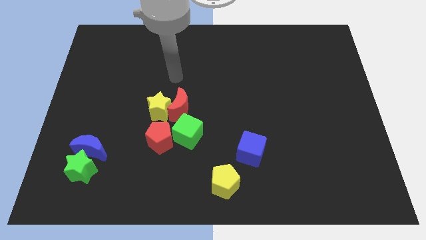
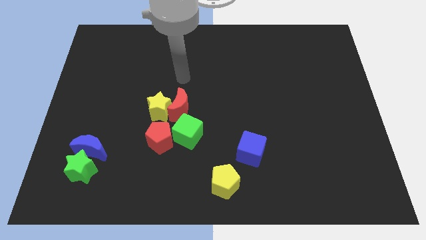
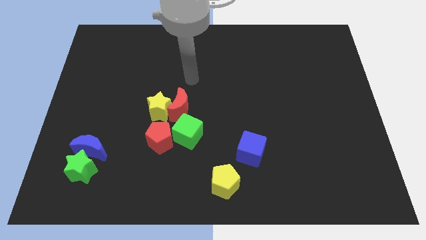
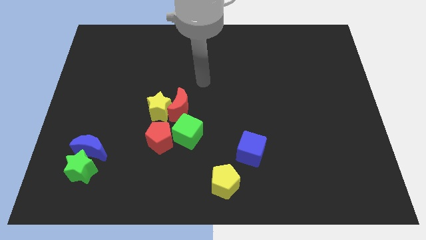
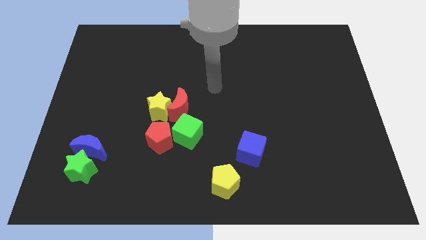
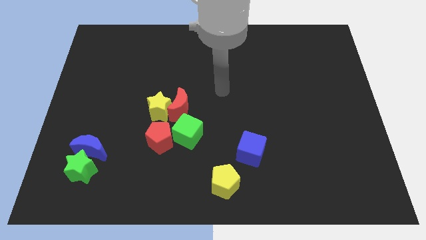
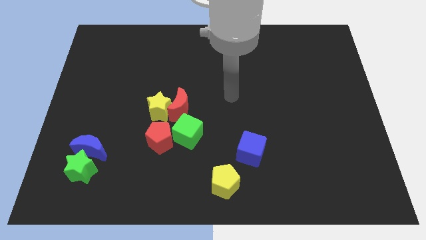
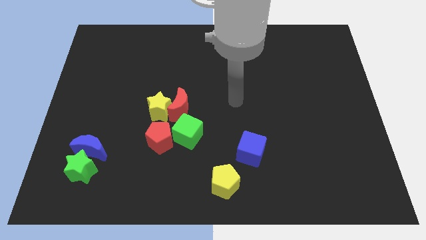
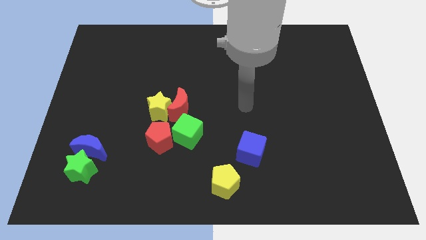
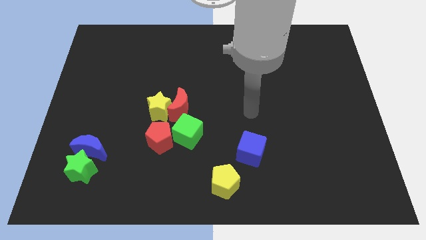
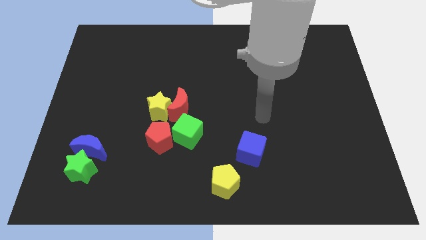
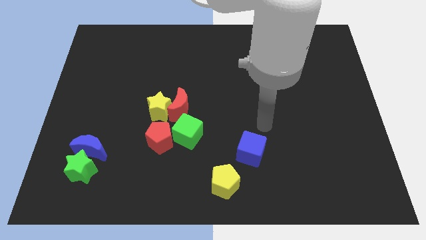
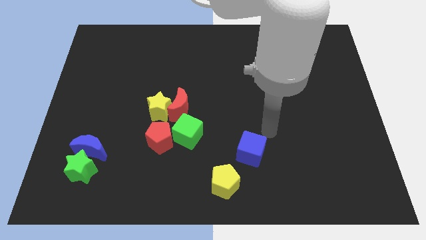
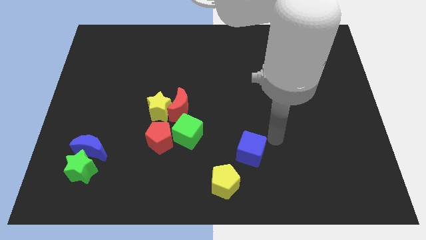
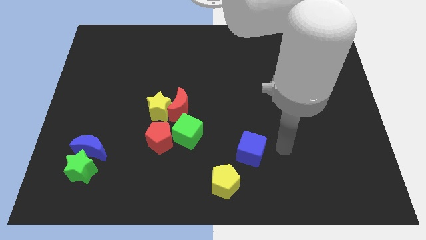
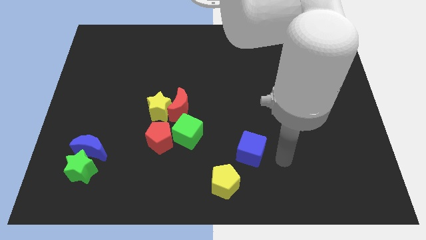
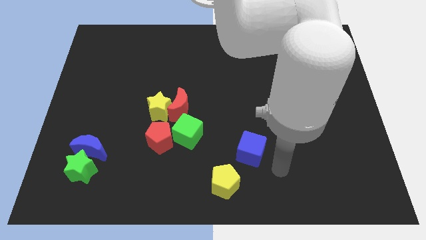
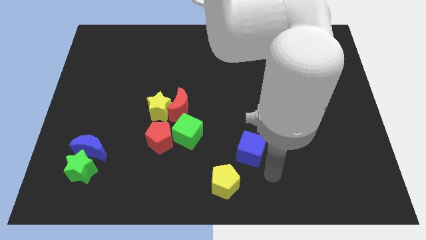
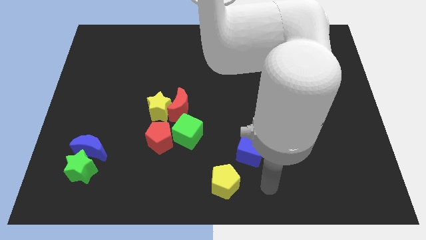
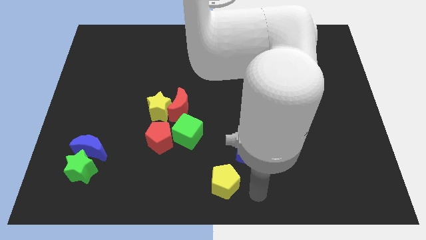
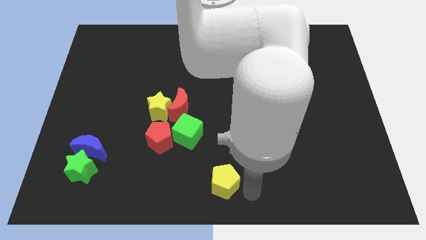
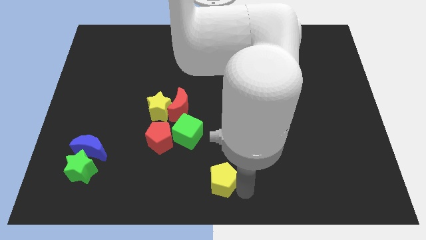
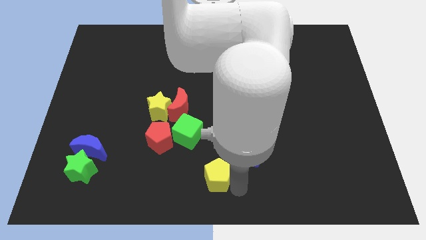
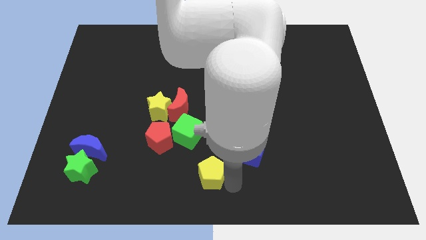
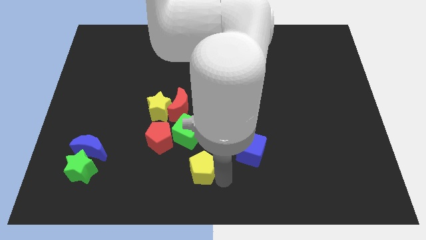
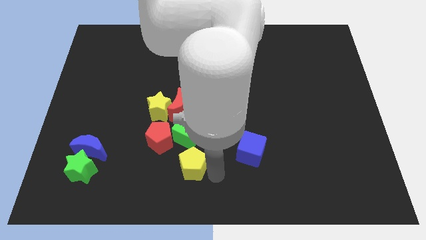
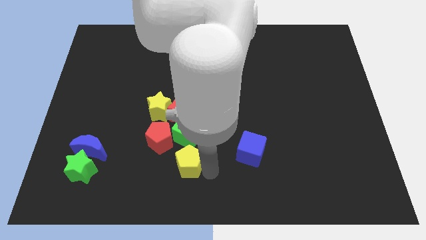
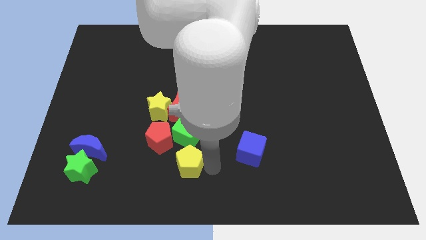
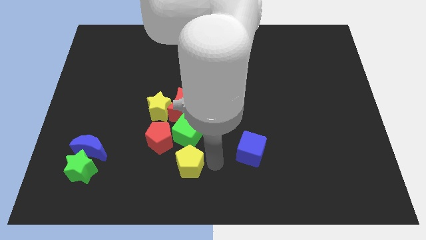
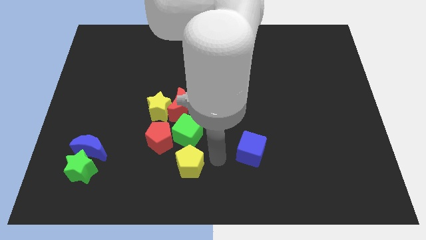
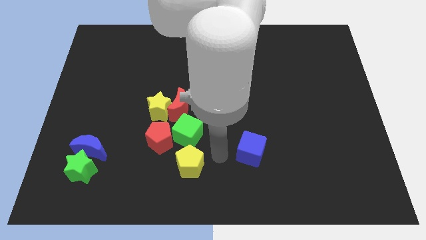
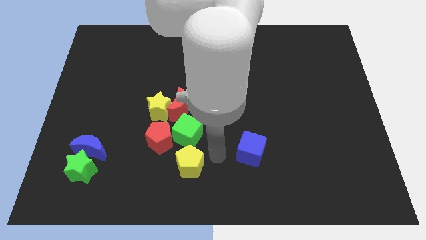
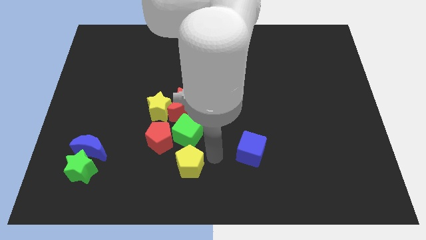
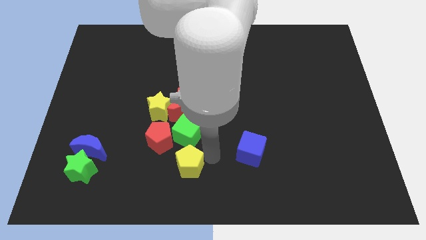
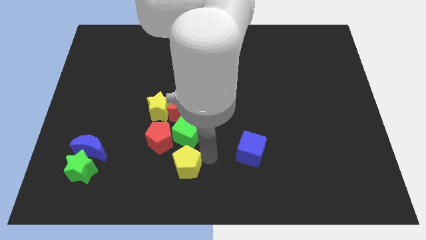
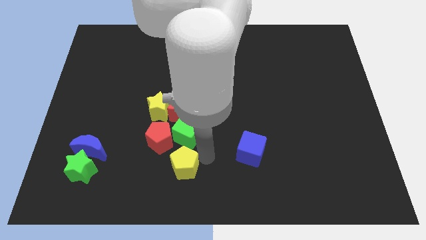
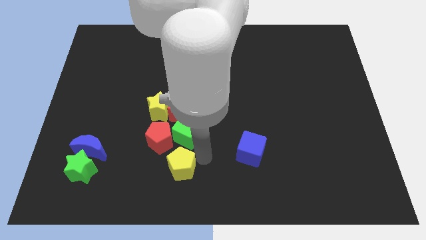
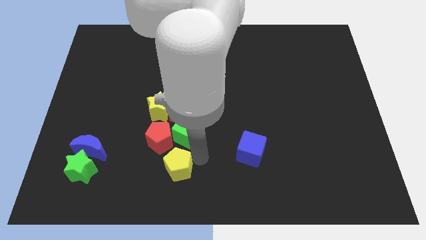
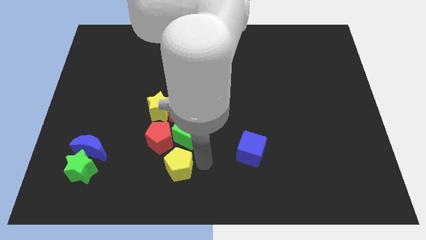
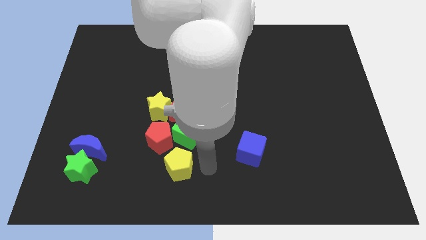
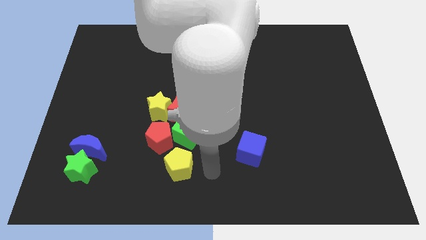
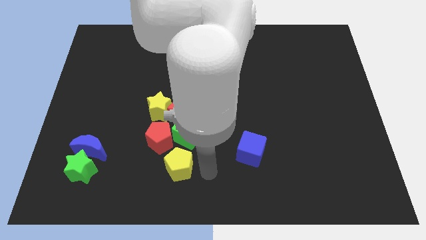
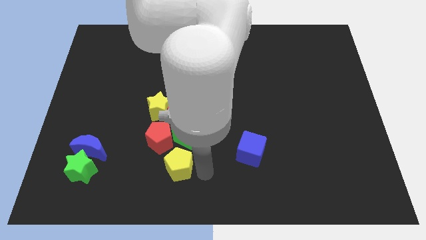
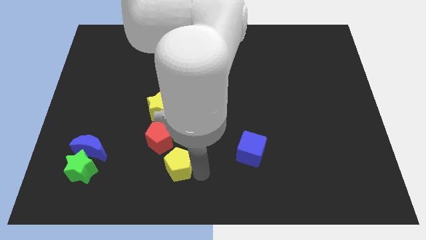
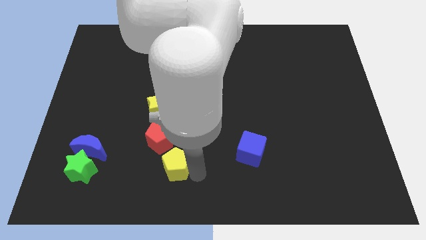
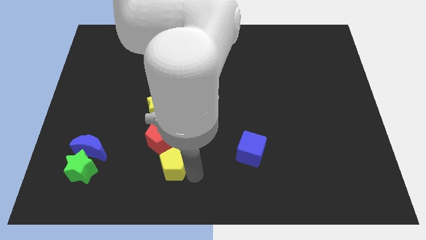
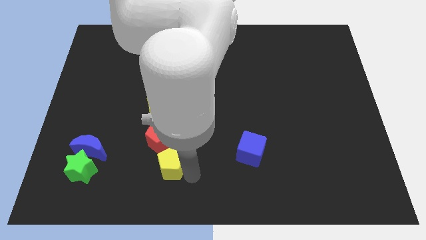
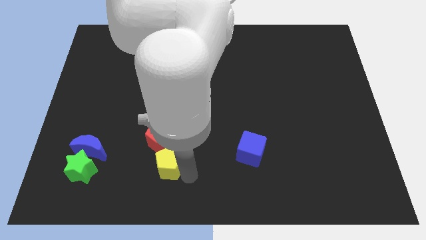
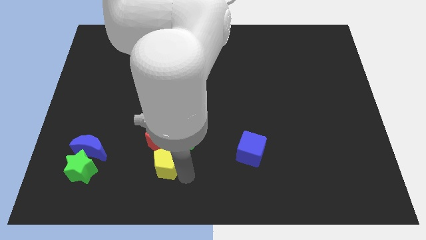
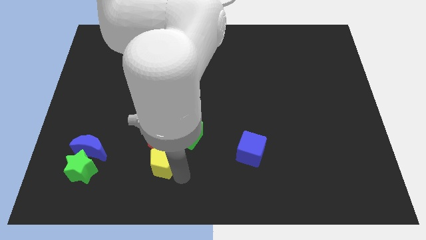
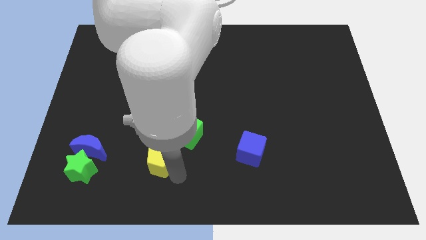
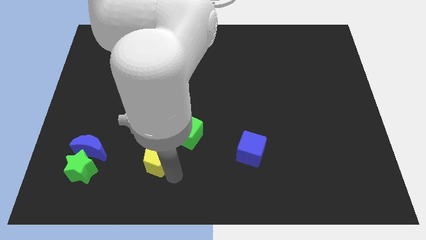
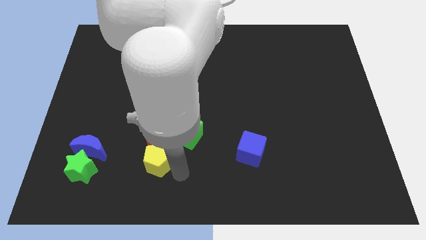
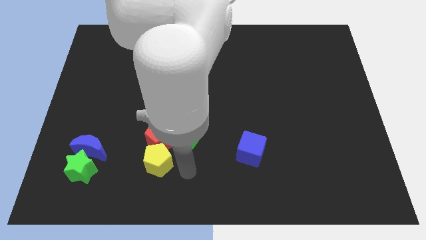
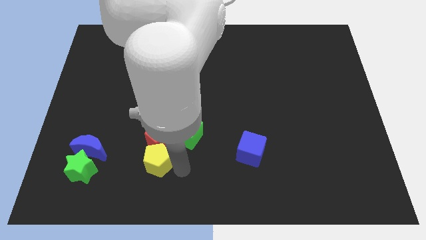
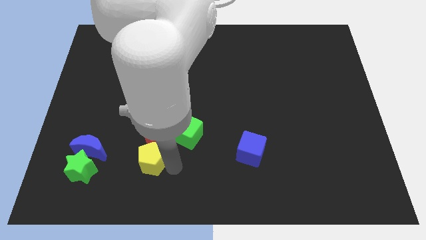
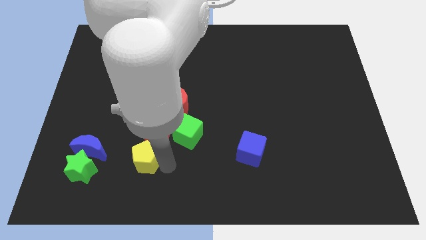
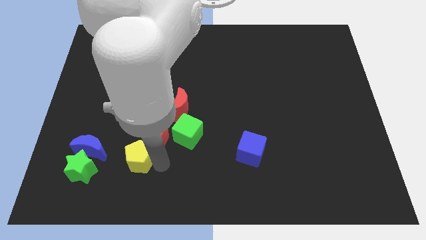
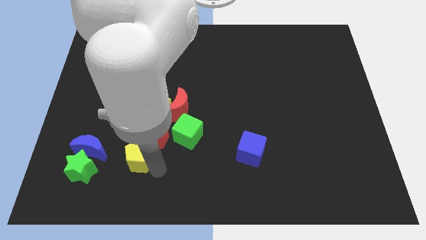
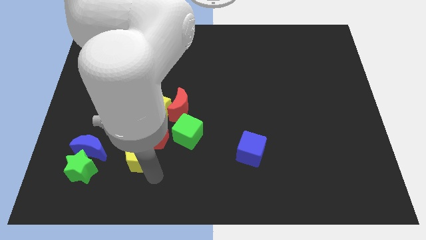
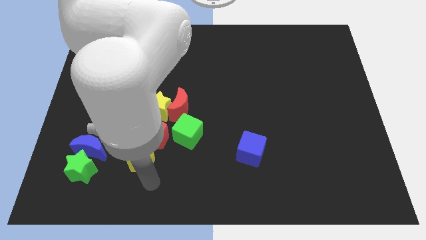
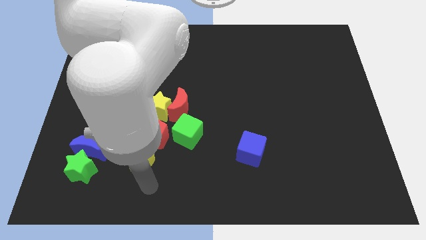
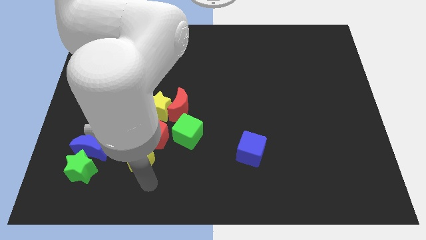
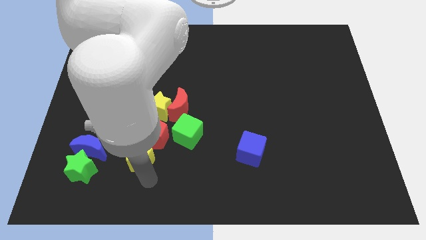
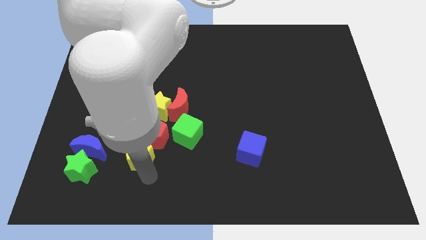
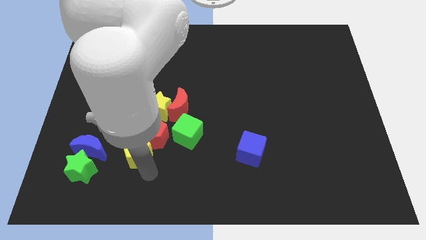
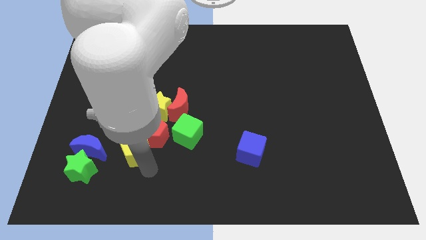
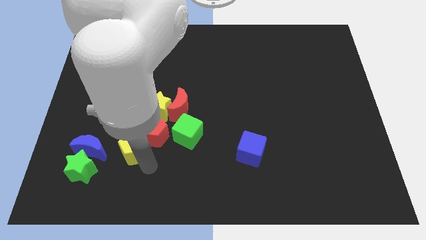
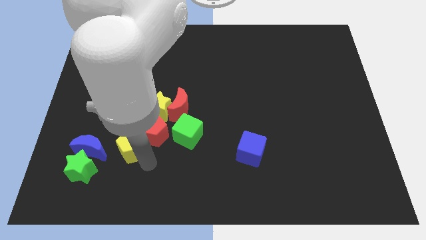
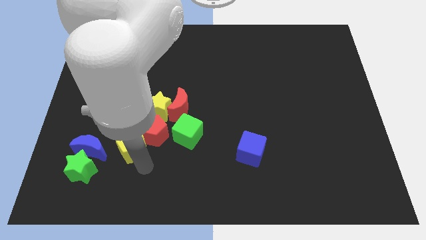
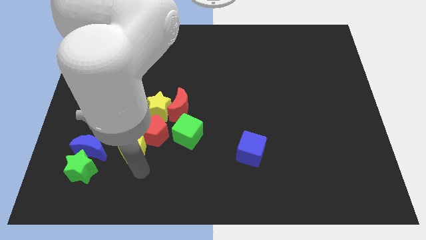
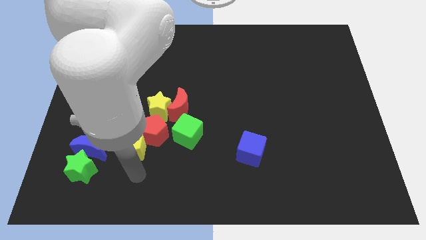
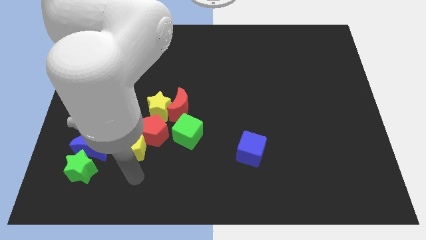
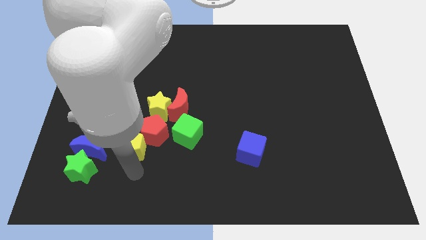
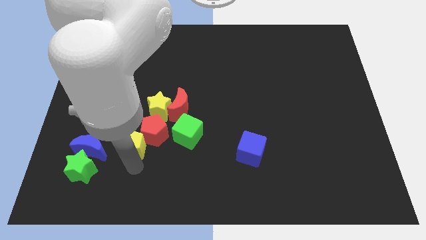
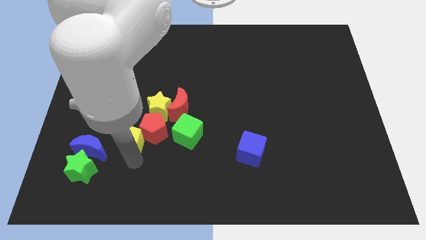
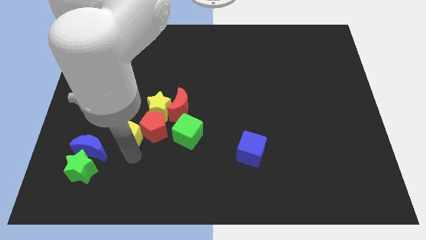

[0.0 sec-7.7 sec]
move the yellow pentagon up and then to the left

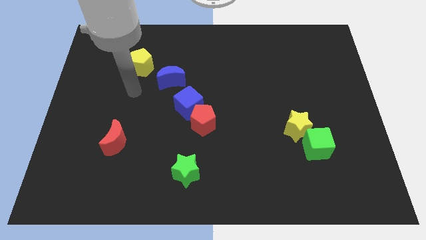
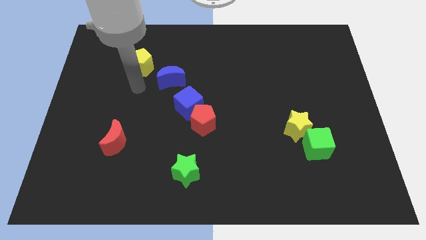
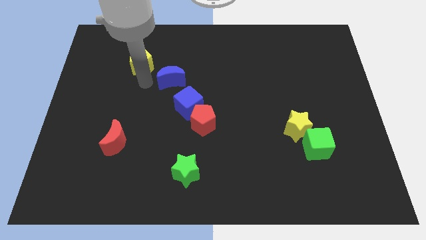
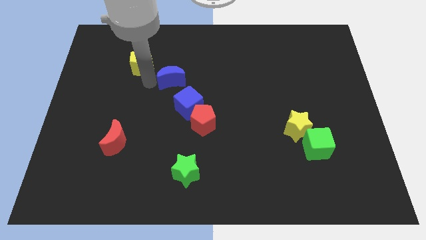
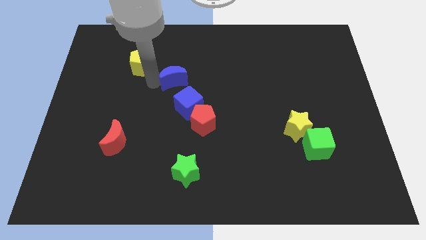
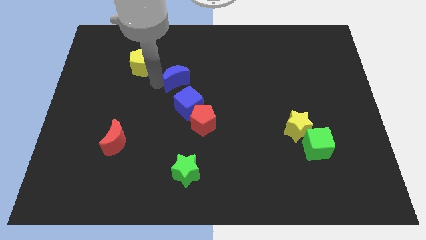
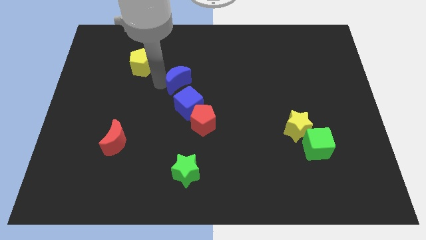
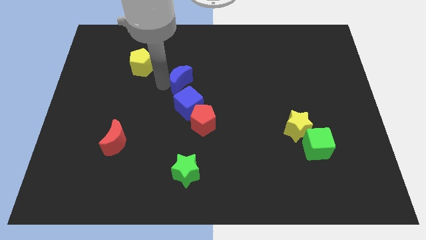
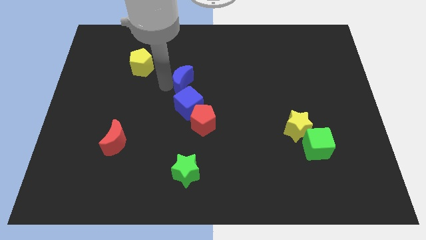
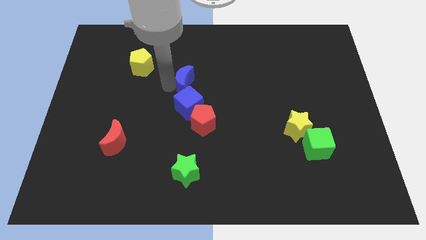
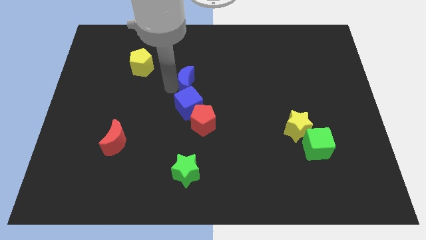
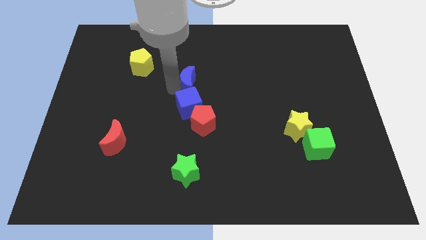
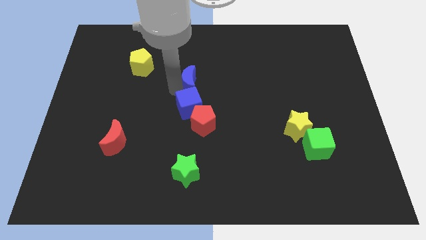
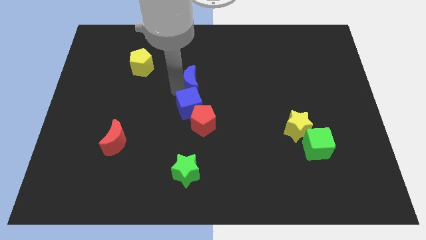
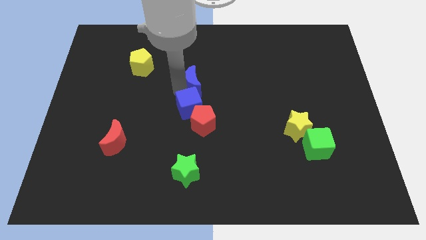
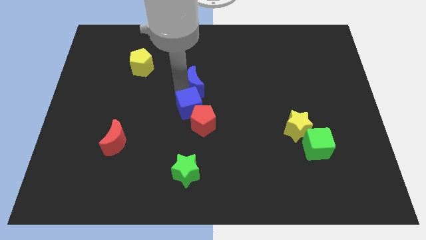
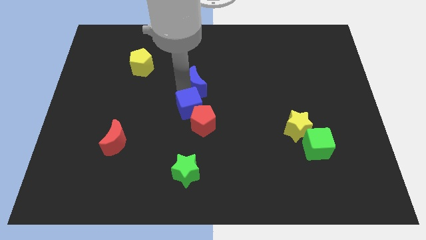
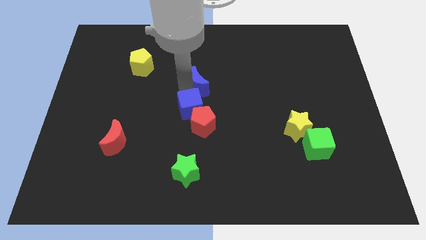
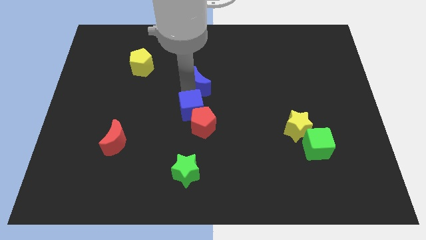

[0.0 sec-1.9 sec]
slightly push the blue moon to the right
